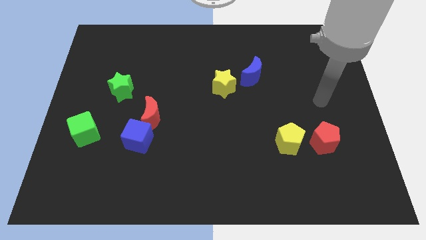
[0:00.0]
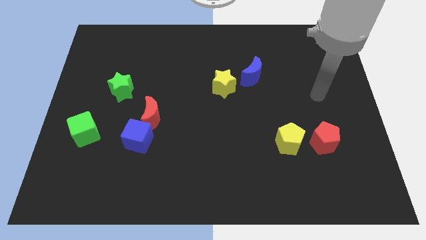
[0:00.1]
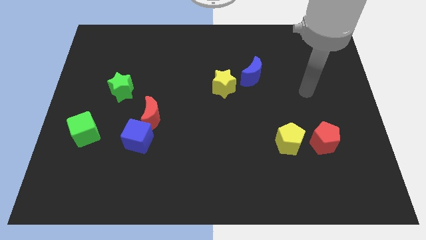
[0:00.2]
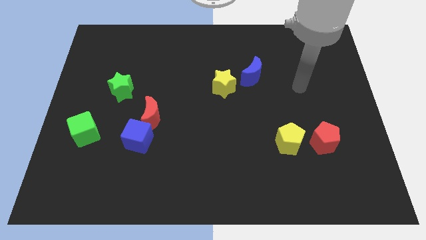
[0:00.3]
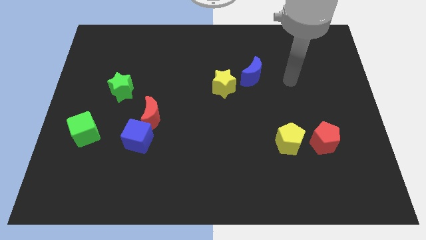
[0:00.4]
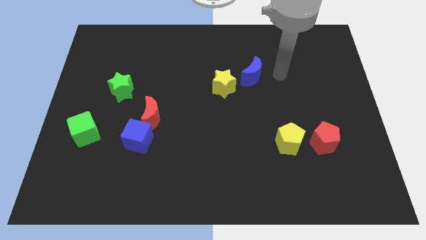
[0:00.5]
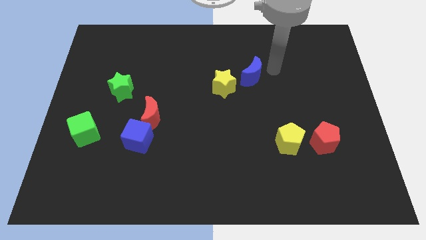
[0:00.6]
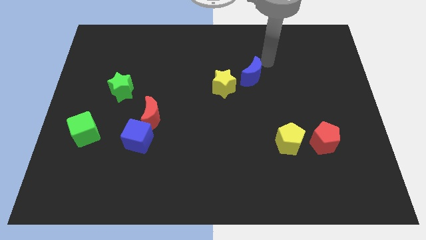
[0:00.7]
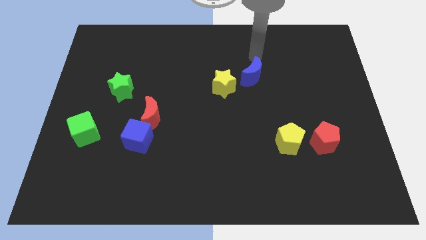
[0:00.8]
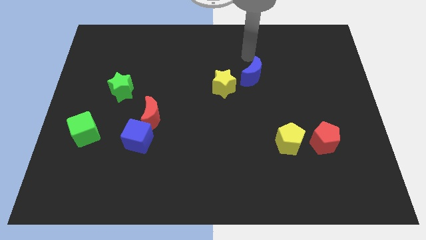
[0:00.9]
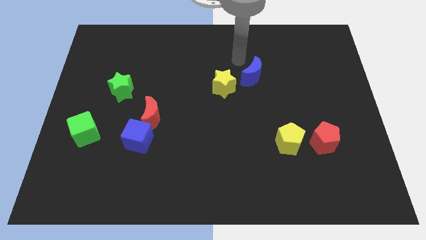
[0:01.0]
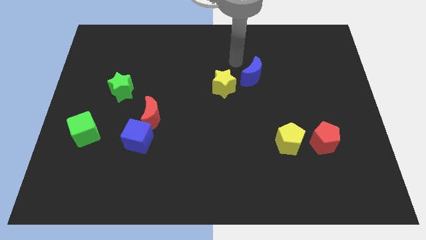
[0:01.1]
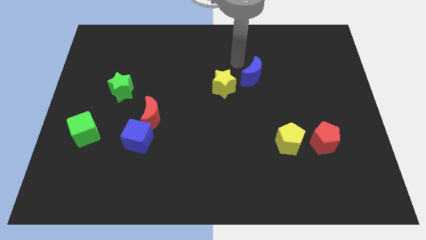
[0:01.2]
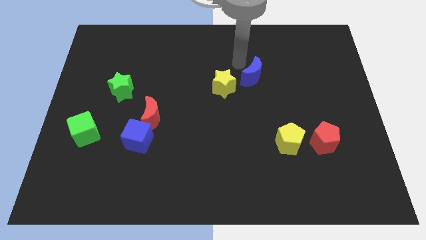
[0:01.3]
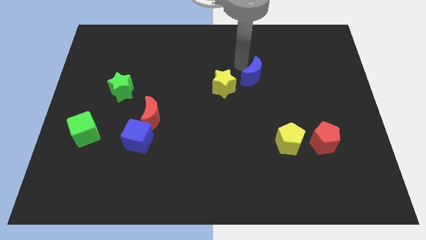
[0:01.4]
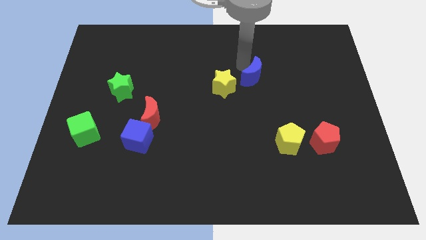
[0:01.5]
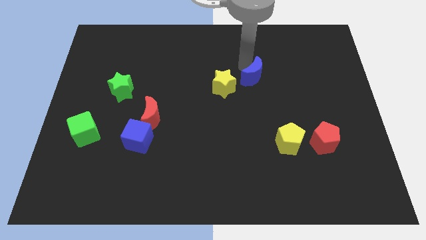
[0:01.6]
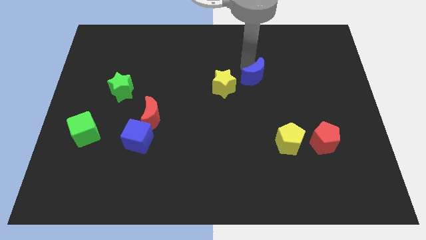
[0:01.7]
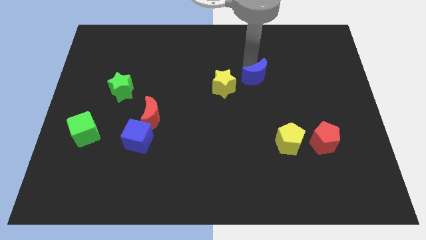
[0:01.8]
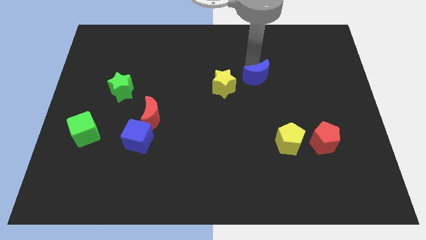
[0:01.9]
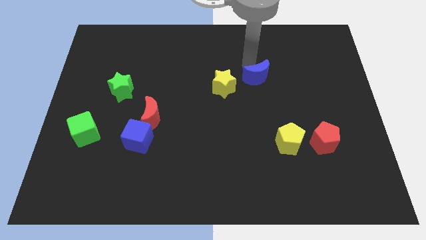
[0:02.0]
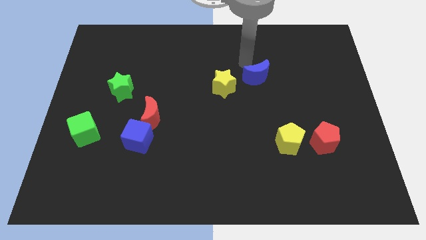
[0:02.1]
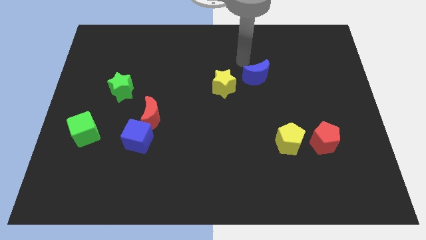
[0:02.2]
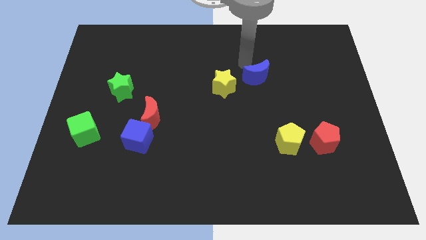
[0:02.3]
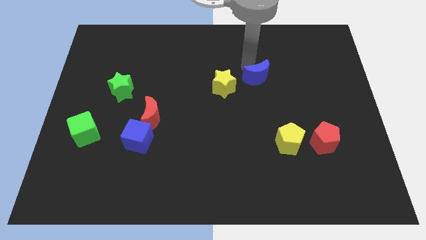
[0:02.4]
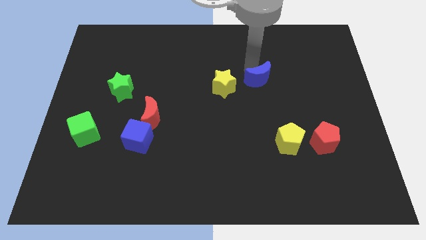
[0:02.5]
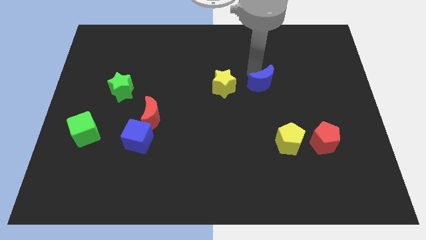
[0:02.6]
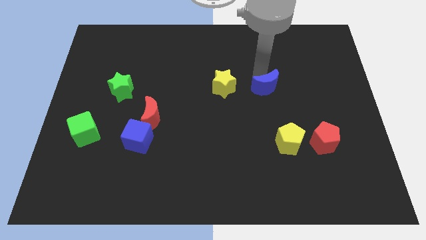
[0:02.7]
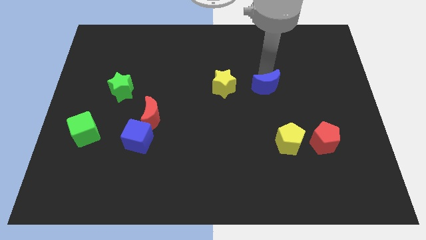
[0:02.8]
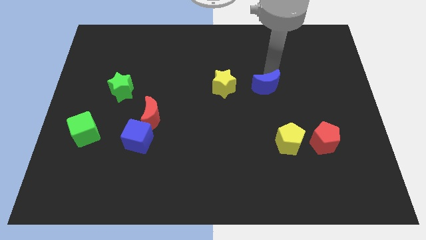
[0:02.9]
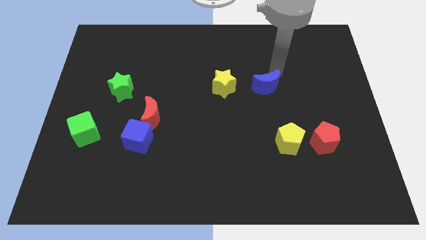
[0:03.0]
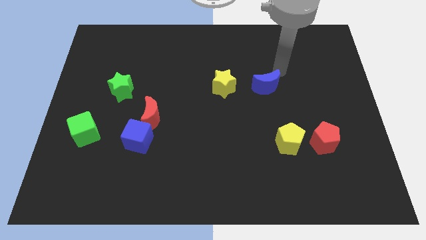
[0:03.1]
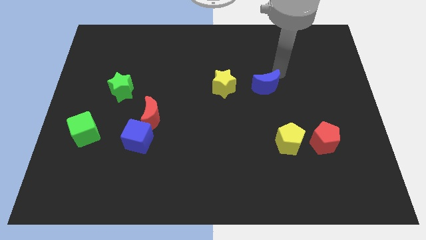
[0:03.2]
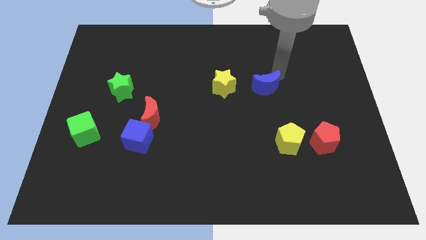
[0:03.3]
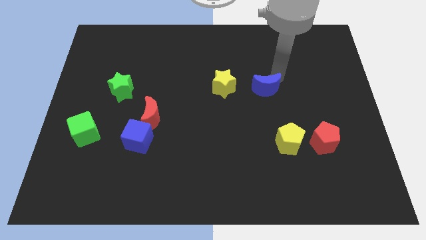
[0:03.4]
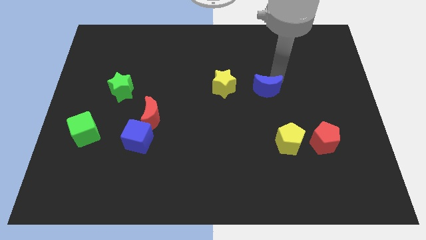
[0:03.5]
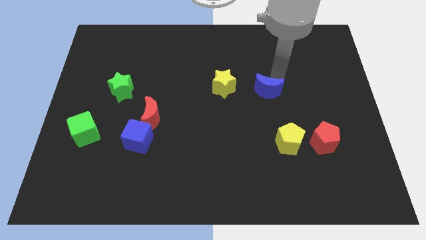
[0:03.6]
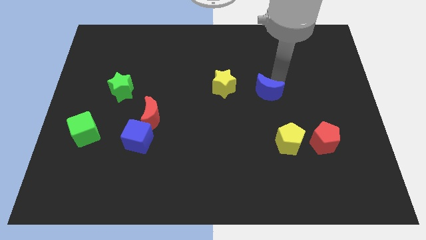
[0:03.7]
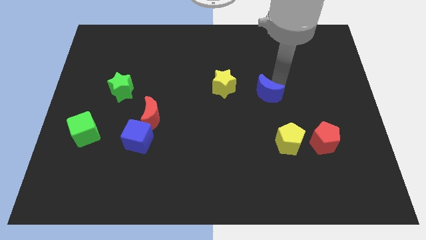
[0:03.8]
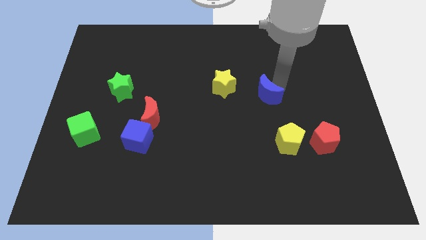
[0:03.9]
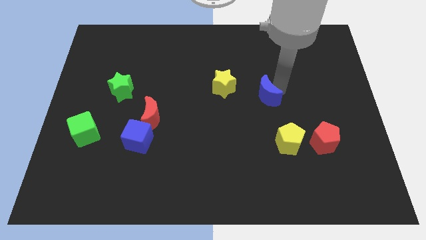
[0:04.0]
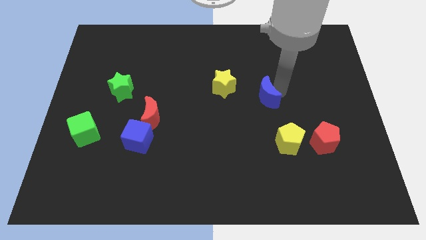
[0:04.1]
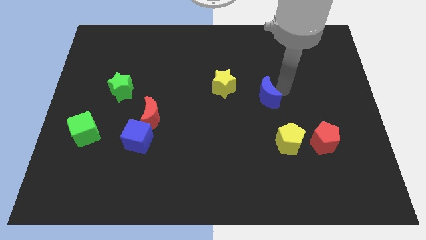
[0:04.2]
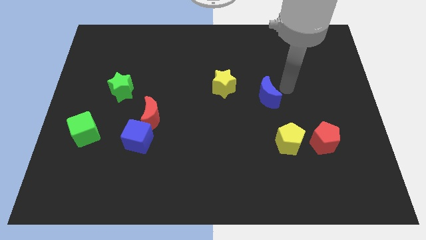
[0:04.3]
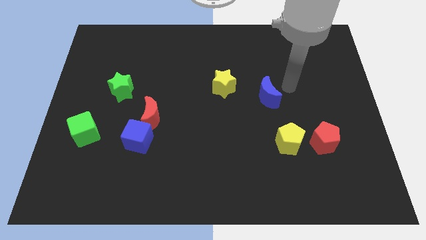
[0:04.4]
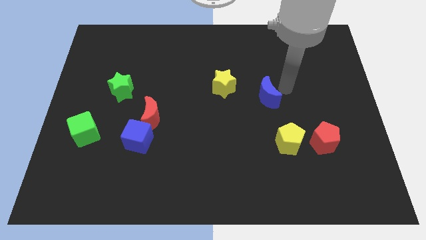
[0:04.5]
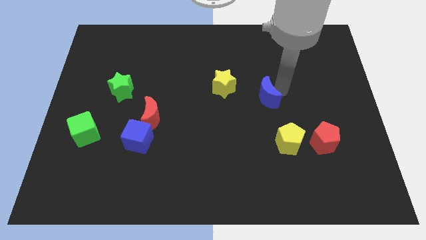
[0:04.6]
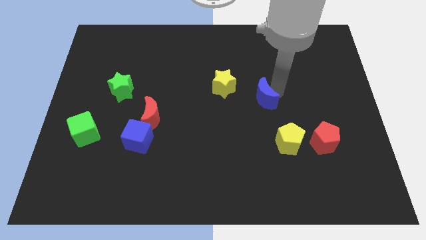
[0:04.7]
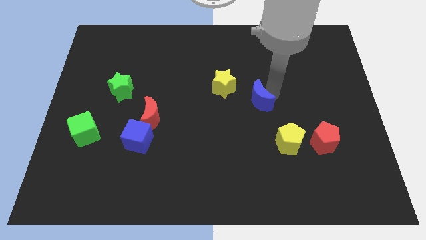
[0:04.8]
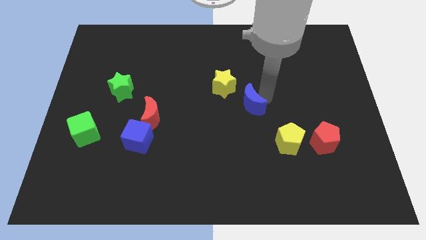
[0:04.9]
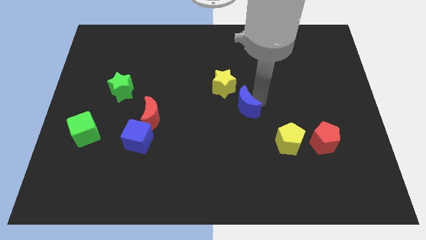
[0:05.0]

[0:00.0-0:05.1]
move the blue moon diagonally downwards and to the left a bit

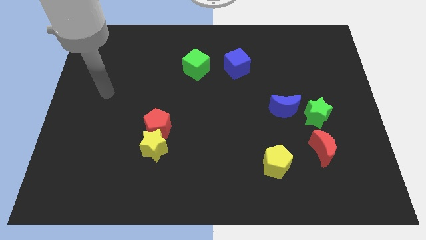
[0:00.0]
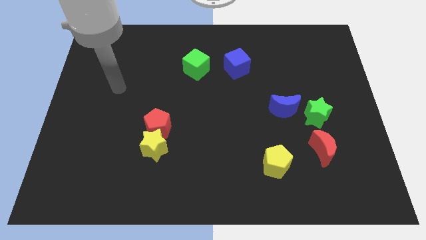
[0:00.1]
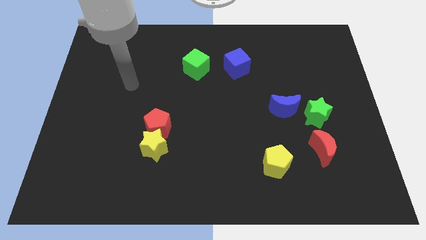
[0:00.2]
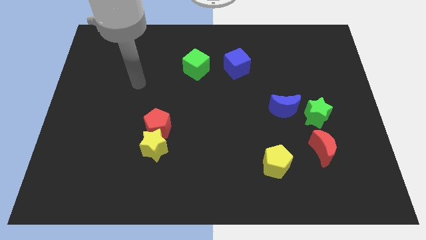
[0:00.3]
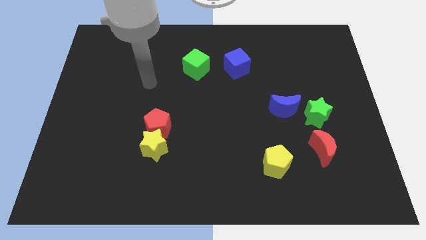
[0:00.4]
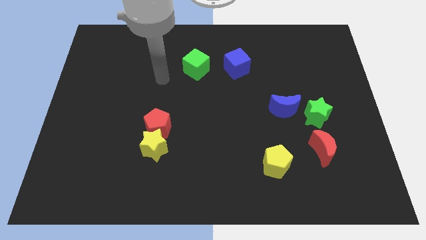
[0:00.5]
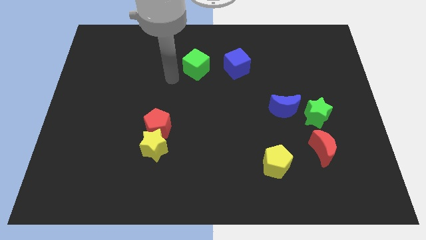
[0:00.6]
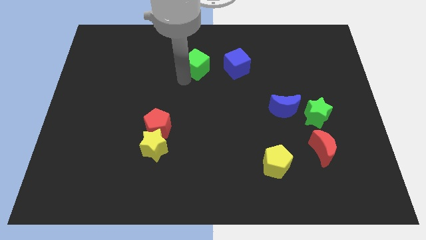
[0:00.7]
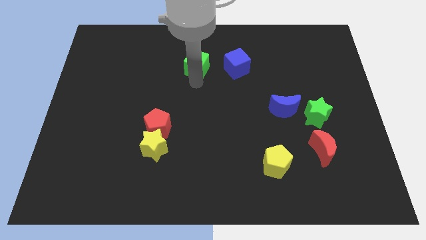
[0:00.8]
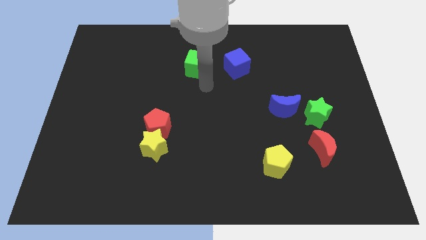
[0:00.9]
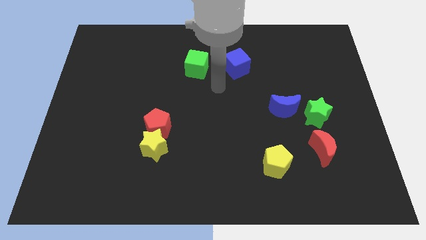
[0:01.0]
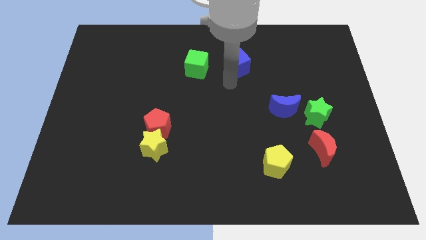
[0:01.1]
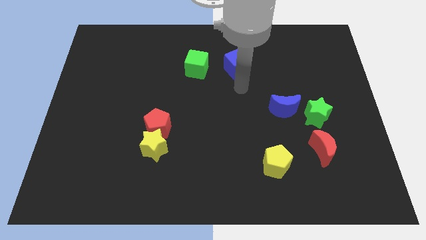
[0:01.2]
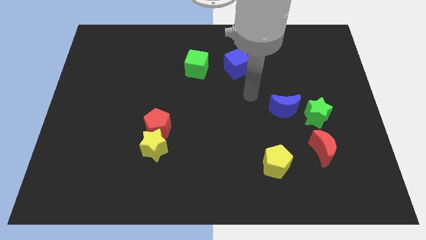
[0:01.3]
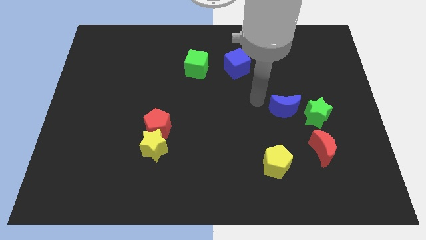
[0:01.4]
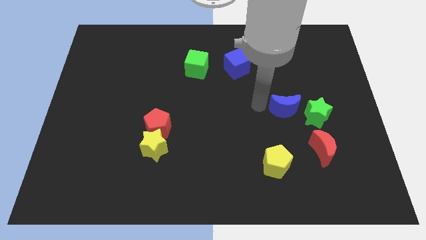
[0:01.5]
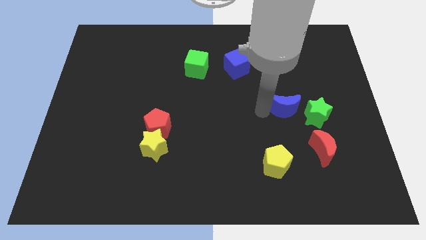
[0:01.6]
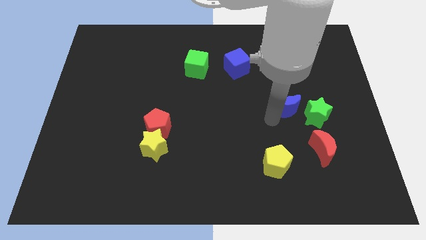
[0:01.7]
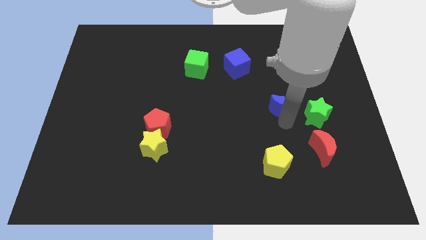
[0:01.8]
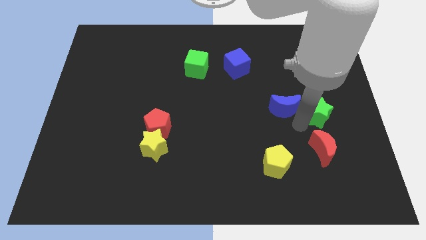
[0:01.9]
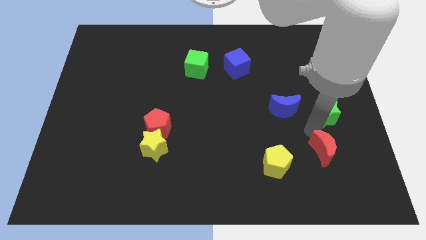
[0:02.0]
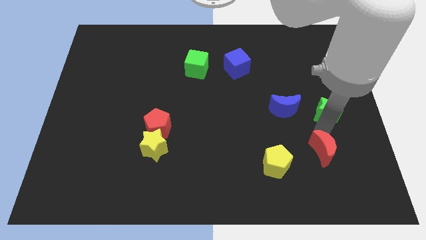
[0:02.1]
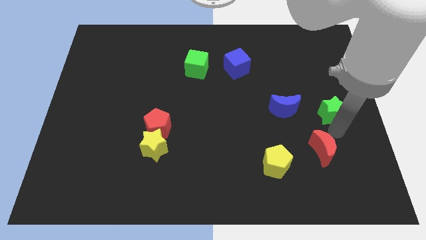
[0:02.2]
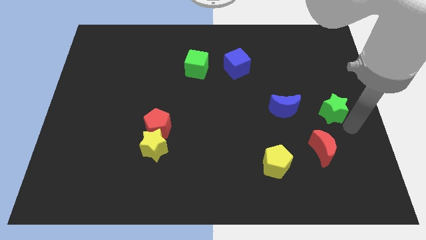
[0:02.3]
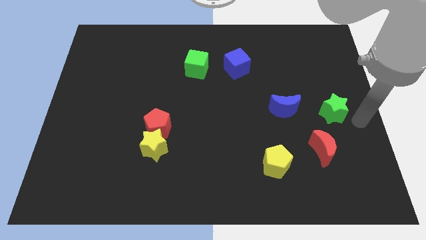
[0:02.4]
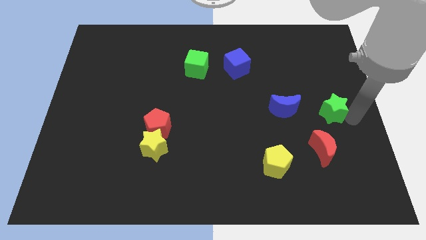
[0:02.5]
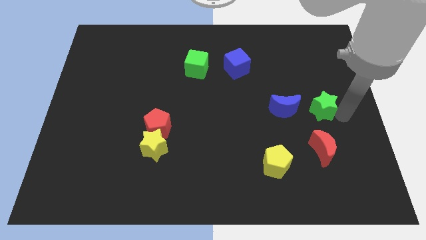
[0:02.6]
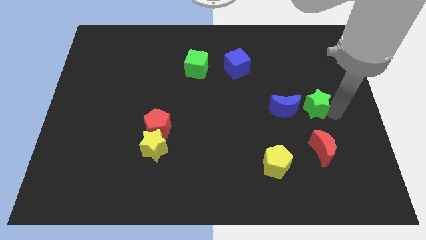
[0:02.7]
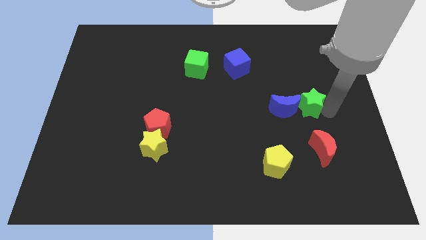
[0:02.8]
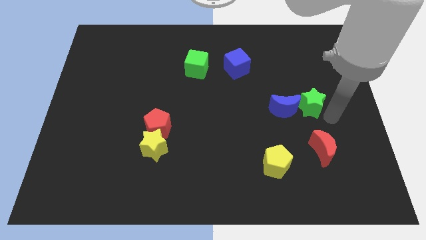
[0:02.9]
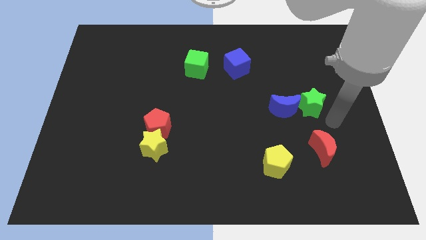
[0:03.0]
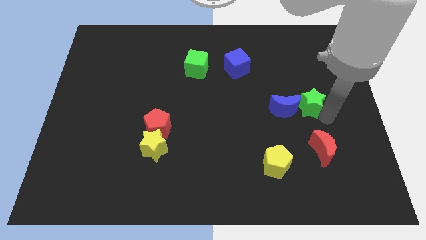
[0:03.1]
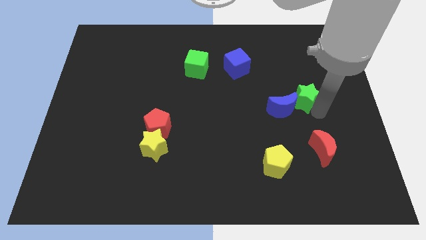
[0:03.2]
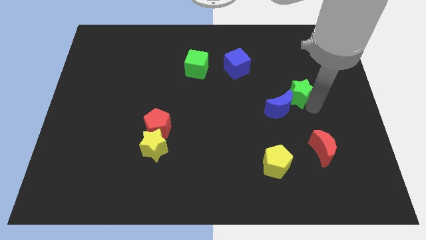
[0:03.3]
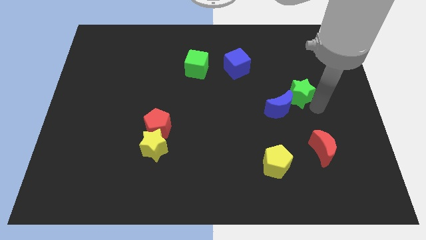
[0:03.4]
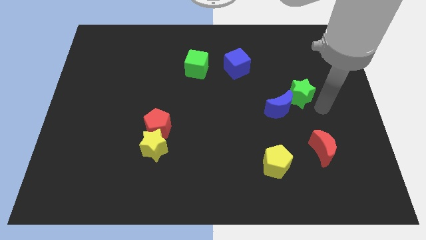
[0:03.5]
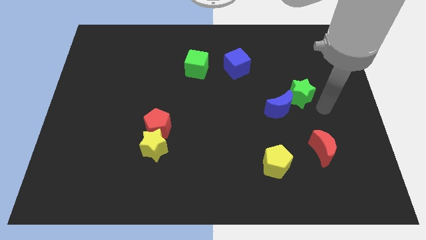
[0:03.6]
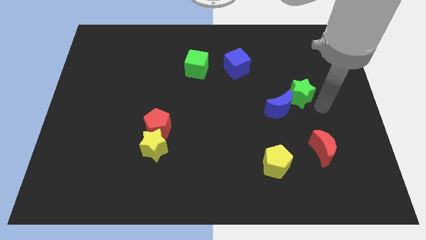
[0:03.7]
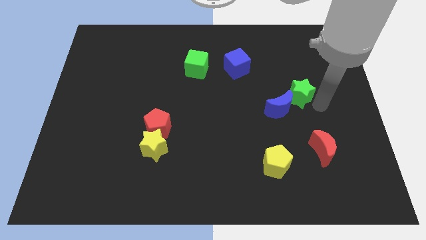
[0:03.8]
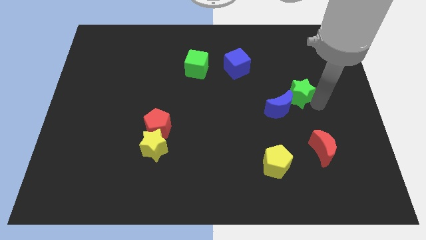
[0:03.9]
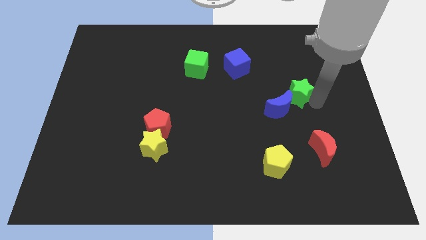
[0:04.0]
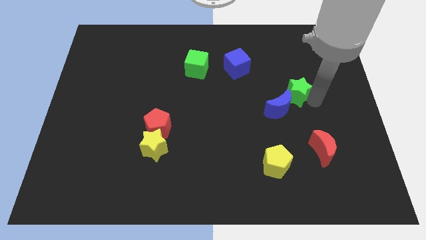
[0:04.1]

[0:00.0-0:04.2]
slightly slide the green star diagonally upwards and to the left
